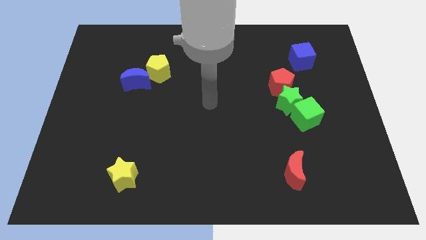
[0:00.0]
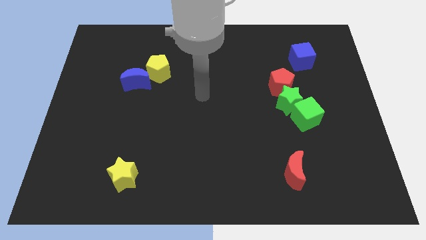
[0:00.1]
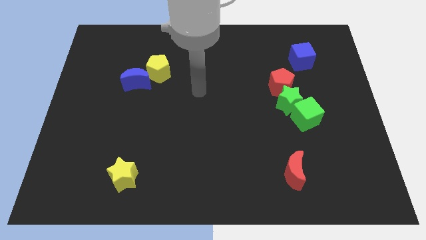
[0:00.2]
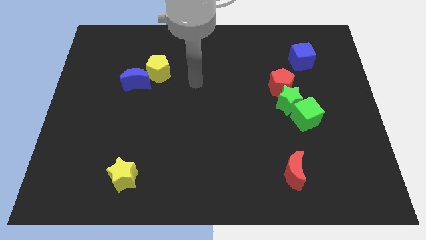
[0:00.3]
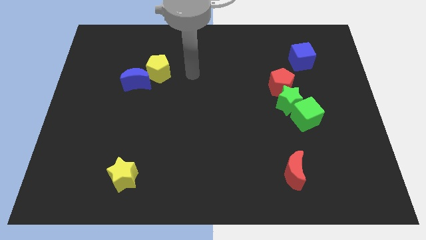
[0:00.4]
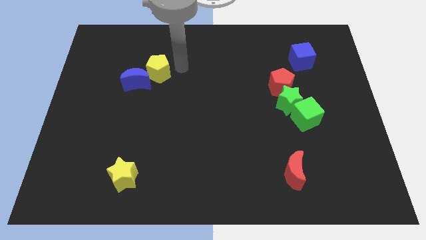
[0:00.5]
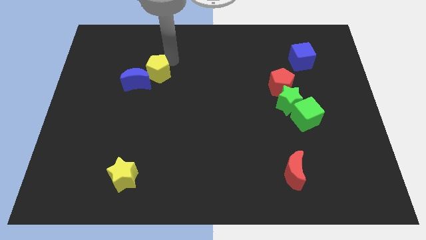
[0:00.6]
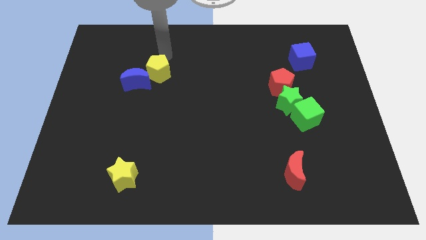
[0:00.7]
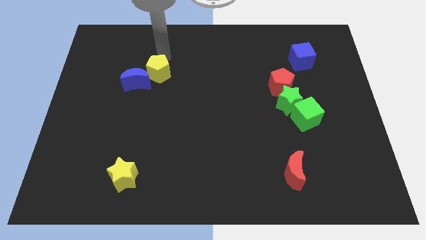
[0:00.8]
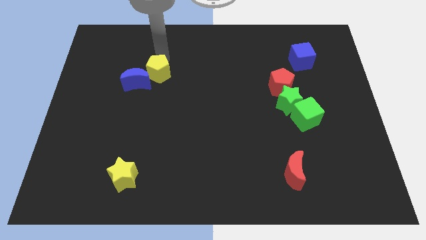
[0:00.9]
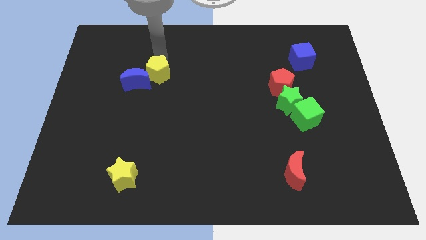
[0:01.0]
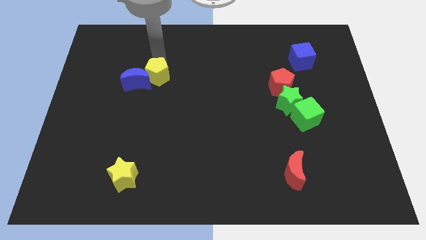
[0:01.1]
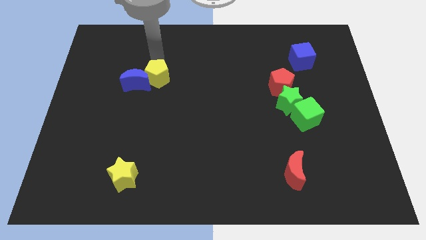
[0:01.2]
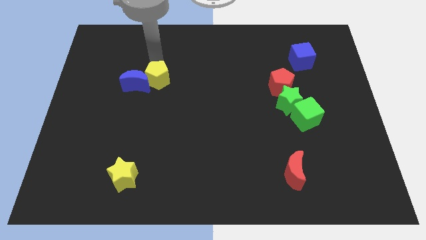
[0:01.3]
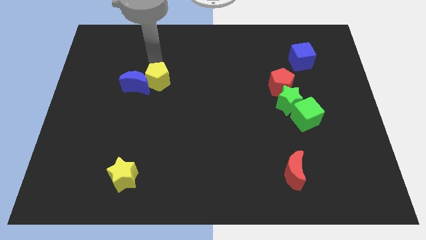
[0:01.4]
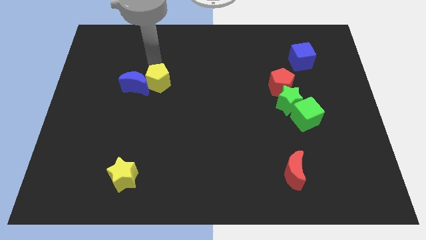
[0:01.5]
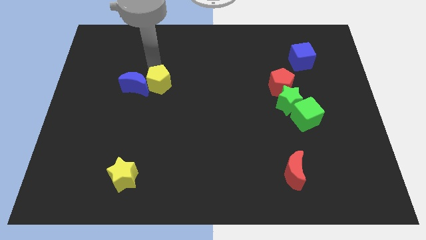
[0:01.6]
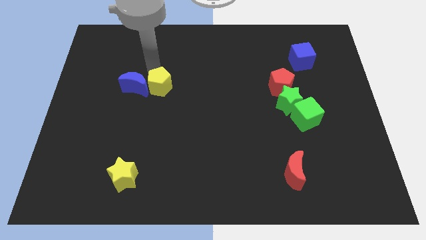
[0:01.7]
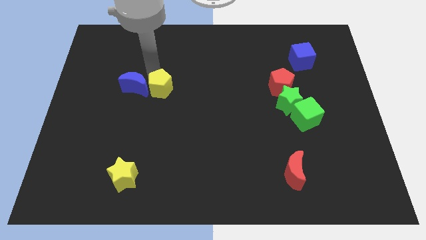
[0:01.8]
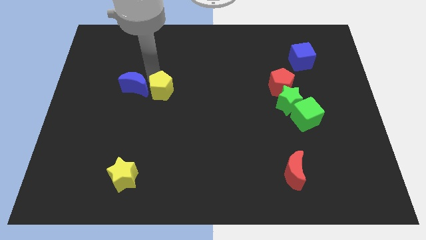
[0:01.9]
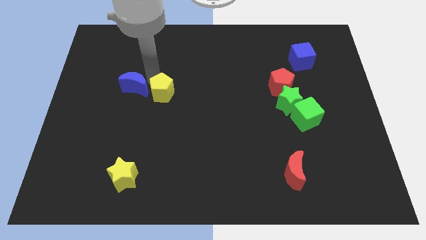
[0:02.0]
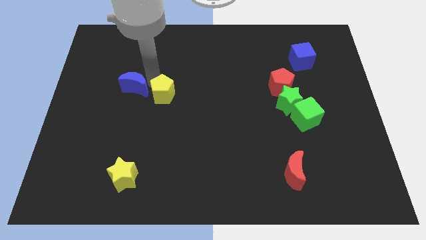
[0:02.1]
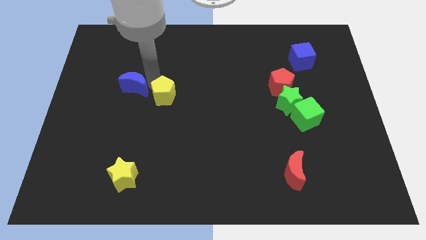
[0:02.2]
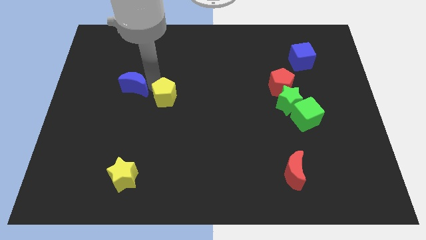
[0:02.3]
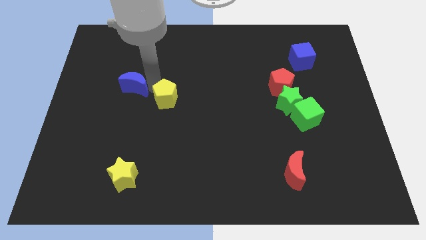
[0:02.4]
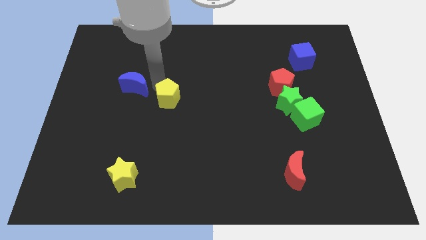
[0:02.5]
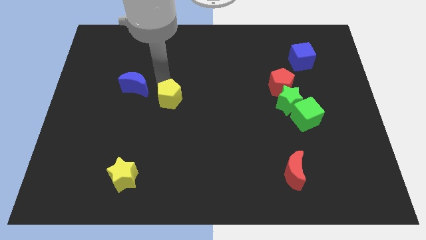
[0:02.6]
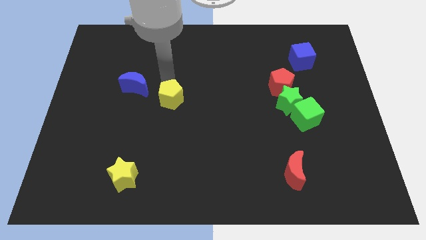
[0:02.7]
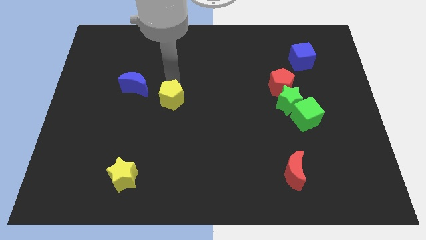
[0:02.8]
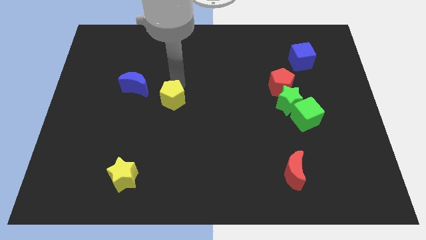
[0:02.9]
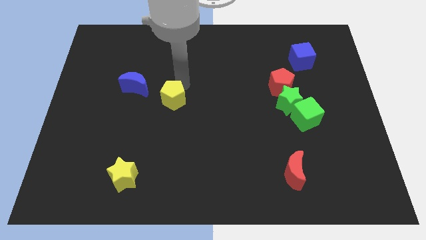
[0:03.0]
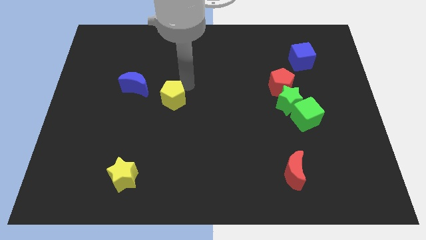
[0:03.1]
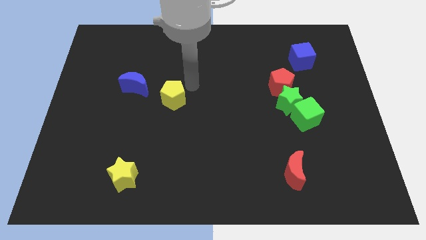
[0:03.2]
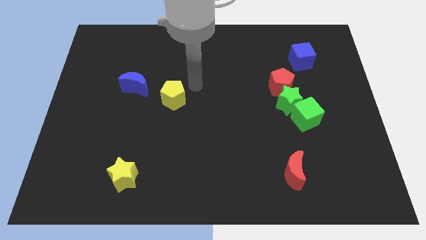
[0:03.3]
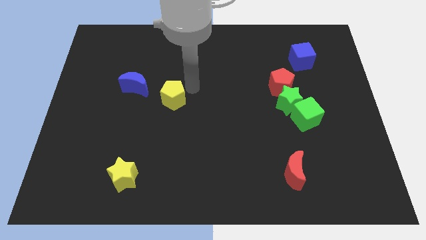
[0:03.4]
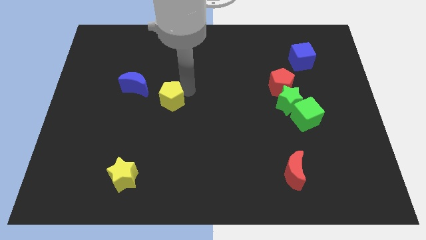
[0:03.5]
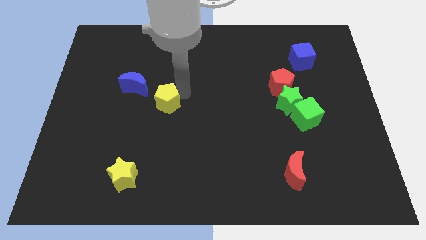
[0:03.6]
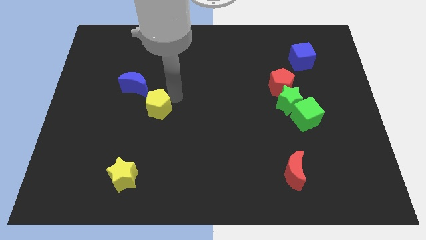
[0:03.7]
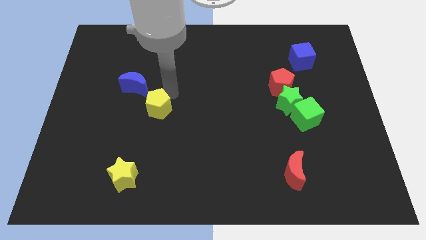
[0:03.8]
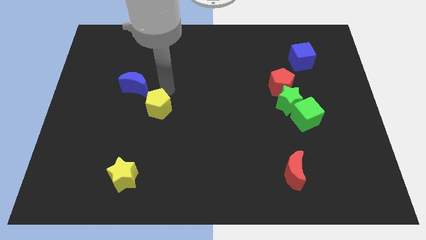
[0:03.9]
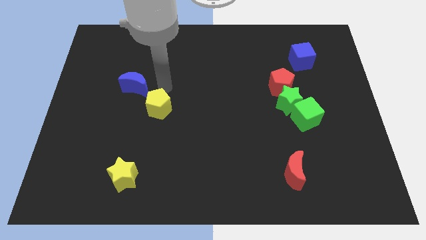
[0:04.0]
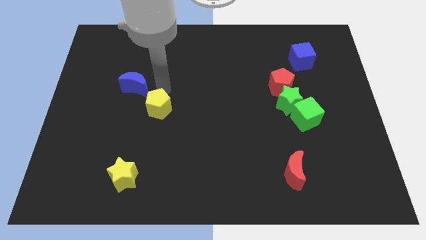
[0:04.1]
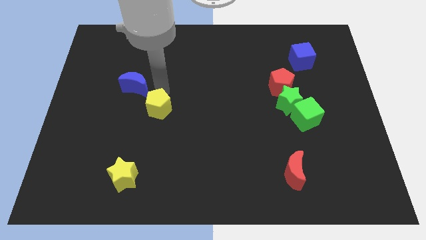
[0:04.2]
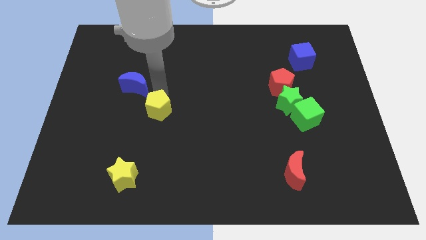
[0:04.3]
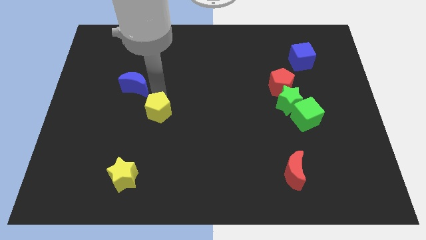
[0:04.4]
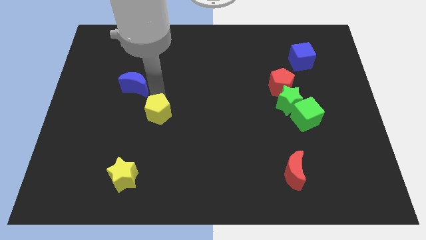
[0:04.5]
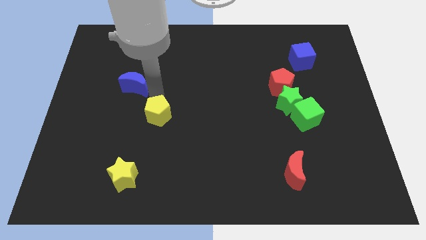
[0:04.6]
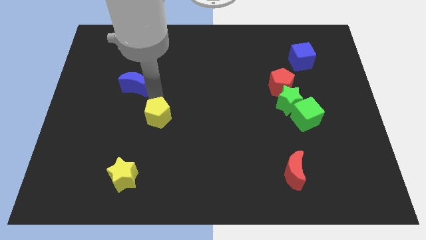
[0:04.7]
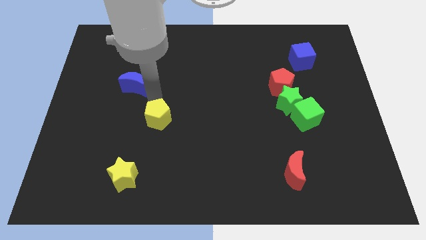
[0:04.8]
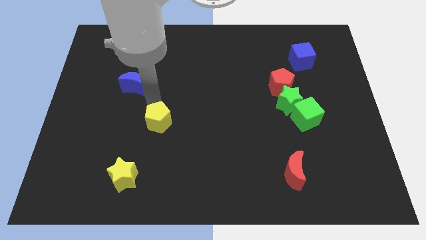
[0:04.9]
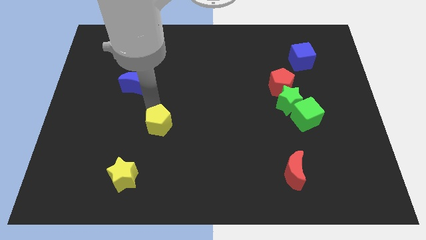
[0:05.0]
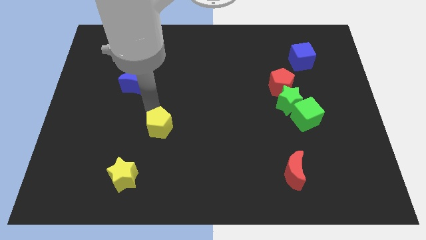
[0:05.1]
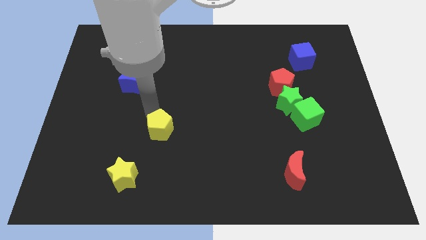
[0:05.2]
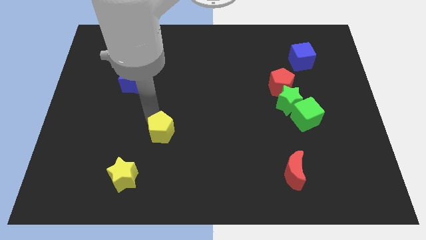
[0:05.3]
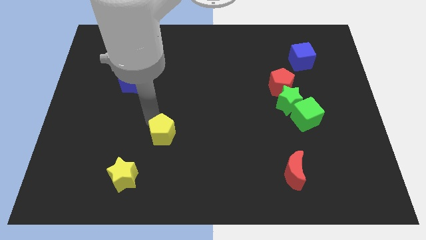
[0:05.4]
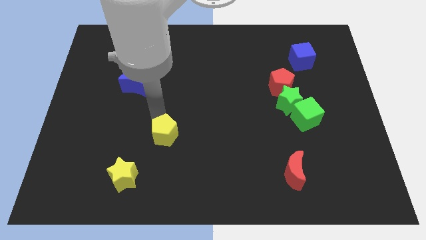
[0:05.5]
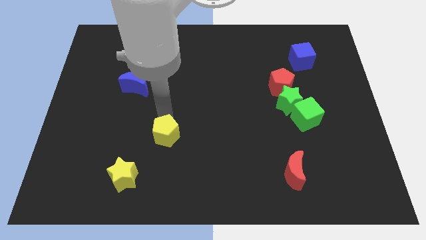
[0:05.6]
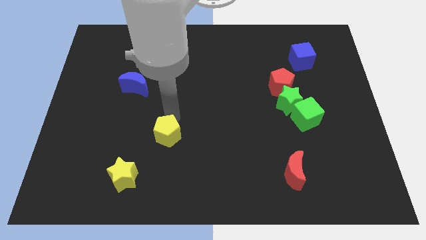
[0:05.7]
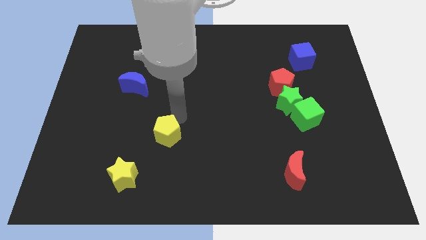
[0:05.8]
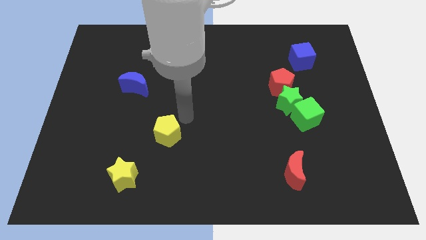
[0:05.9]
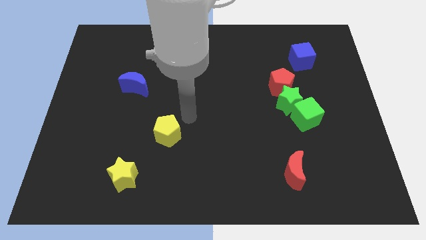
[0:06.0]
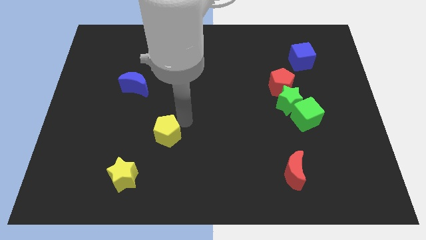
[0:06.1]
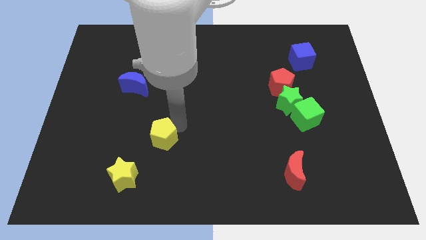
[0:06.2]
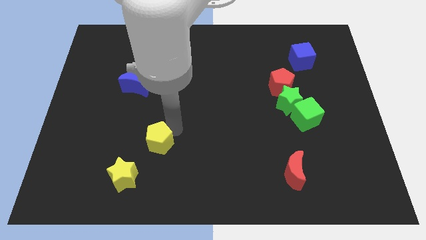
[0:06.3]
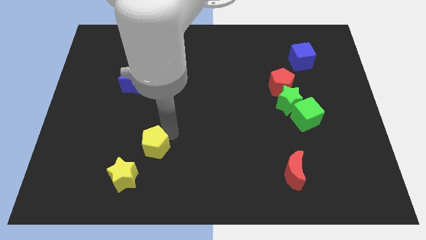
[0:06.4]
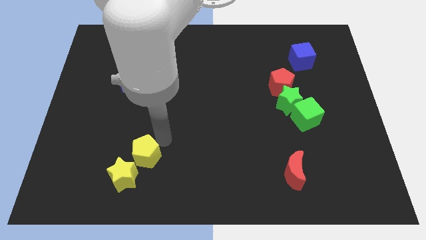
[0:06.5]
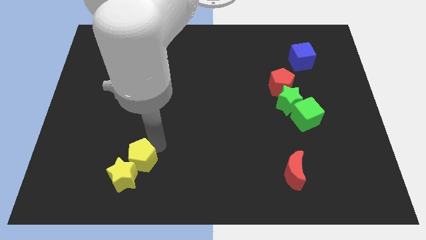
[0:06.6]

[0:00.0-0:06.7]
put the yellow pentagon next to the yellow star

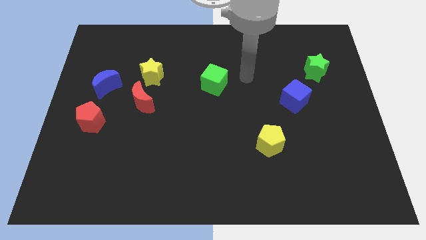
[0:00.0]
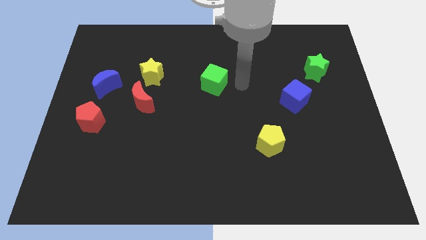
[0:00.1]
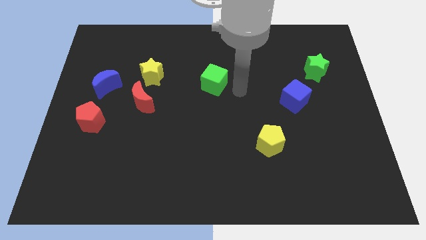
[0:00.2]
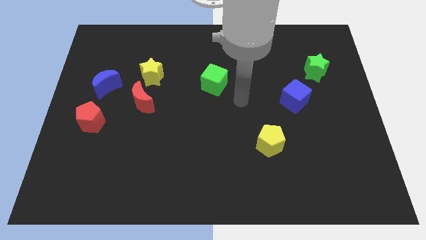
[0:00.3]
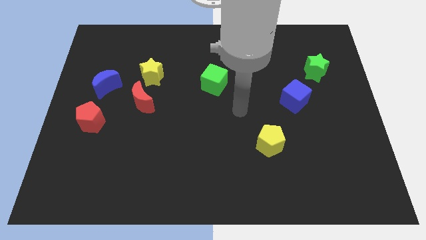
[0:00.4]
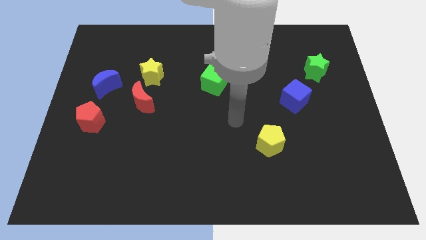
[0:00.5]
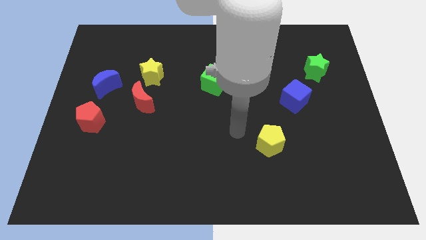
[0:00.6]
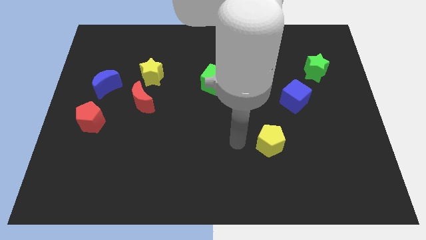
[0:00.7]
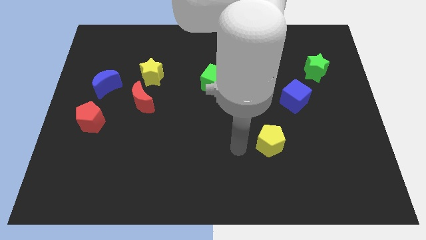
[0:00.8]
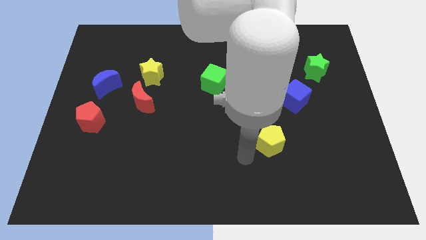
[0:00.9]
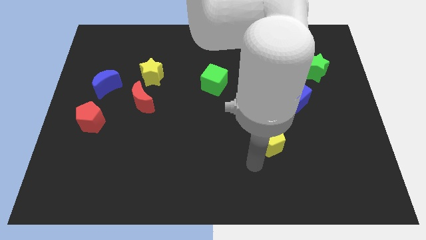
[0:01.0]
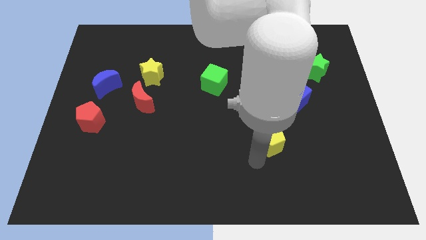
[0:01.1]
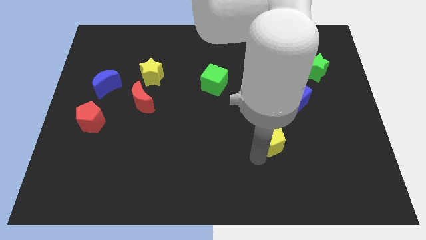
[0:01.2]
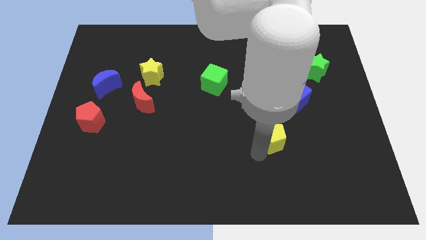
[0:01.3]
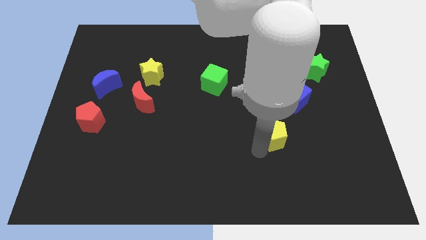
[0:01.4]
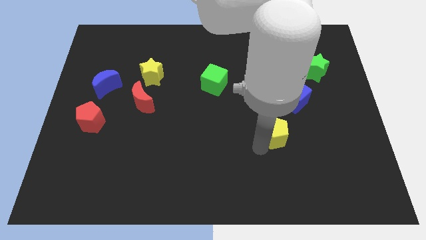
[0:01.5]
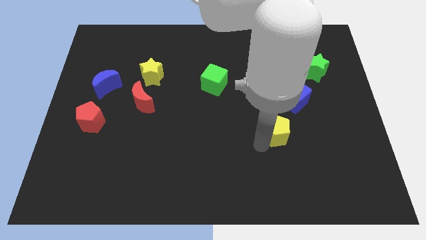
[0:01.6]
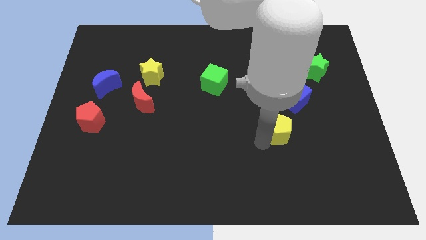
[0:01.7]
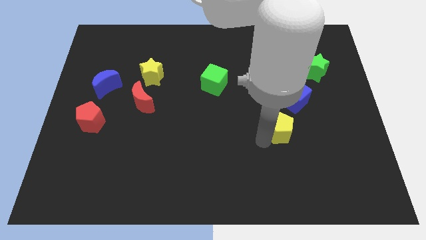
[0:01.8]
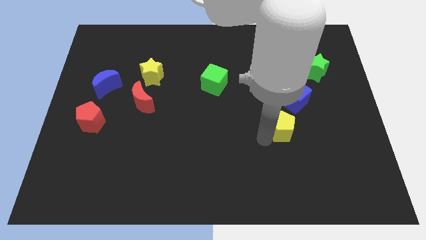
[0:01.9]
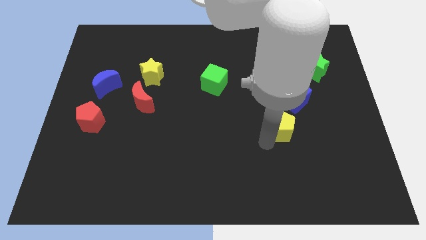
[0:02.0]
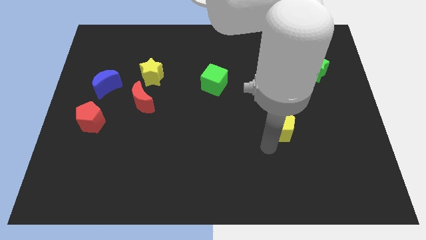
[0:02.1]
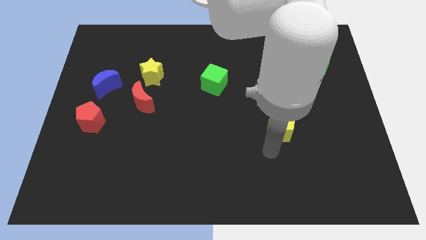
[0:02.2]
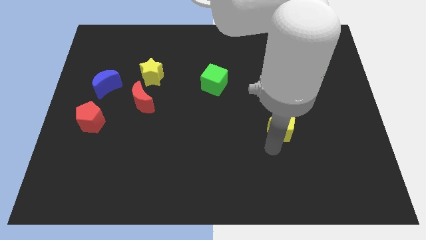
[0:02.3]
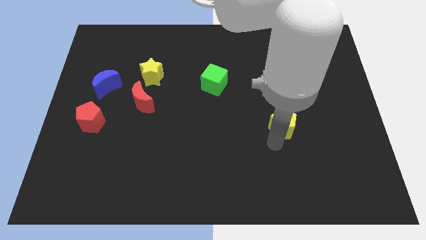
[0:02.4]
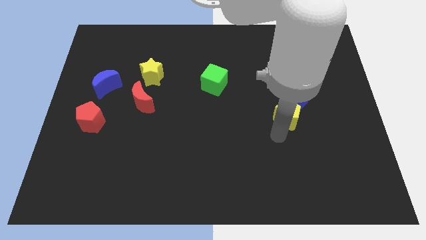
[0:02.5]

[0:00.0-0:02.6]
push the yellow pentagon next to the blue cube
